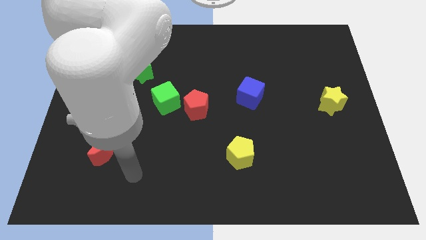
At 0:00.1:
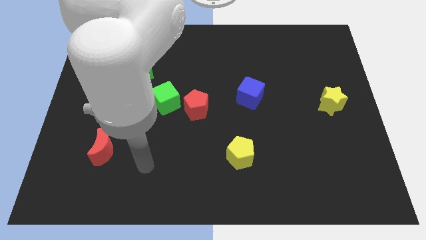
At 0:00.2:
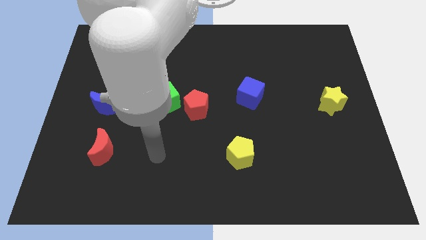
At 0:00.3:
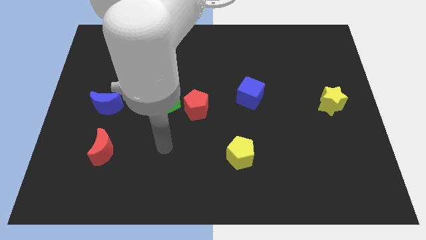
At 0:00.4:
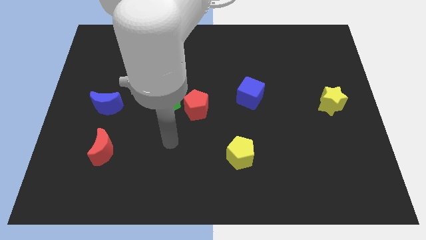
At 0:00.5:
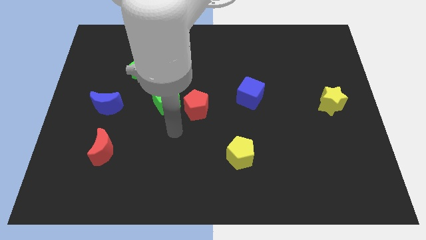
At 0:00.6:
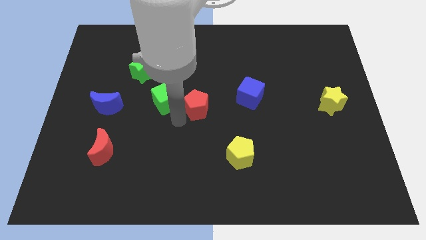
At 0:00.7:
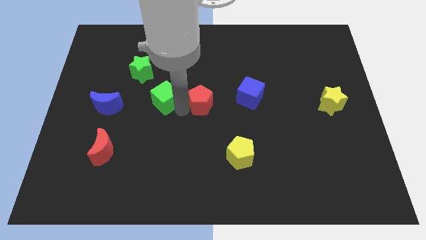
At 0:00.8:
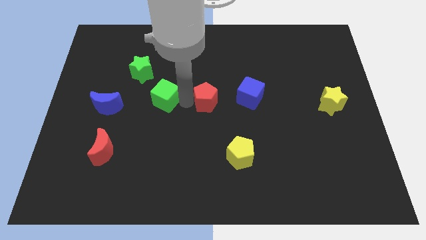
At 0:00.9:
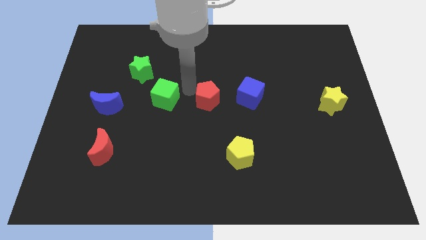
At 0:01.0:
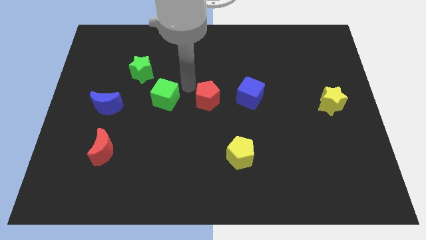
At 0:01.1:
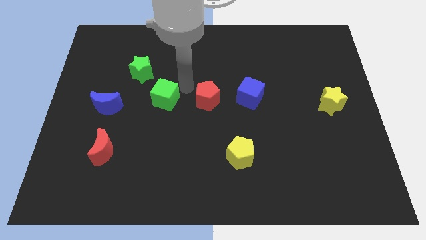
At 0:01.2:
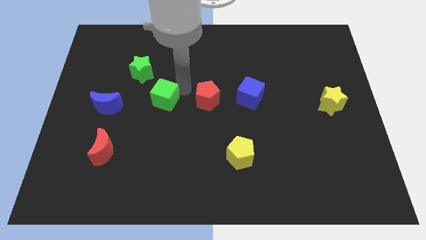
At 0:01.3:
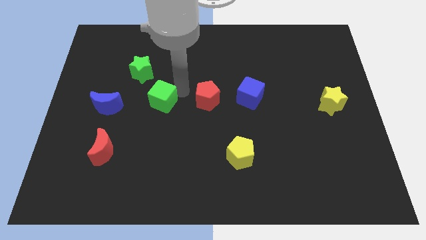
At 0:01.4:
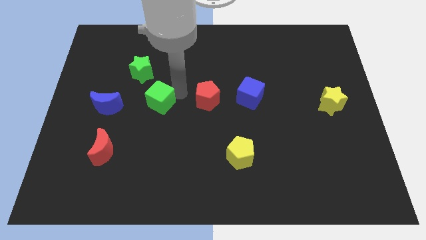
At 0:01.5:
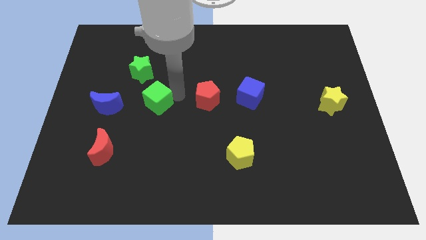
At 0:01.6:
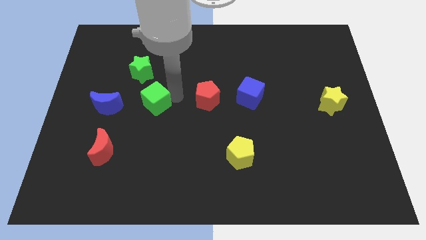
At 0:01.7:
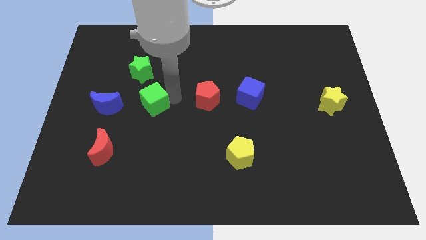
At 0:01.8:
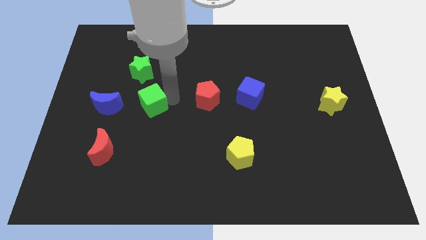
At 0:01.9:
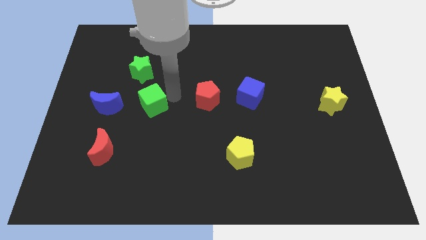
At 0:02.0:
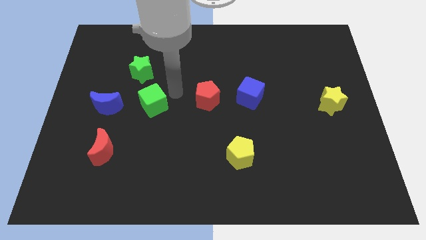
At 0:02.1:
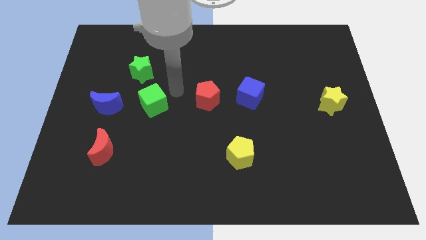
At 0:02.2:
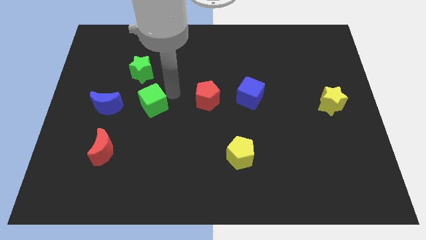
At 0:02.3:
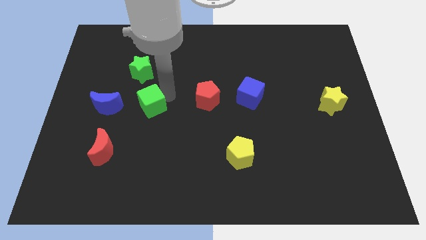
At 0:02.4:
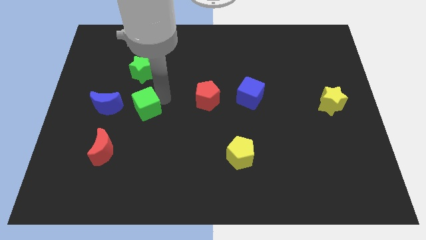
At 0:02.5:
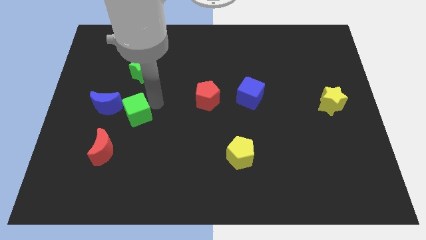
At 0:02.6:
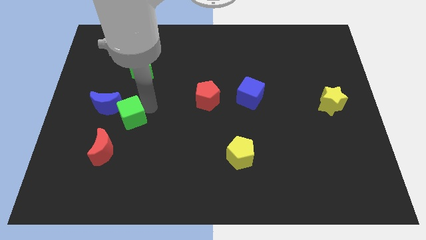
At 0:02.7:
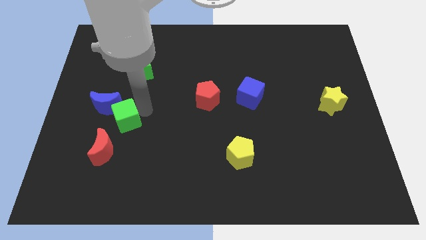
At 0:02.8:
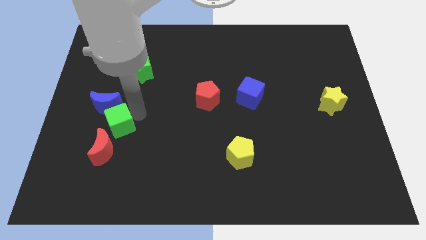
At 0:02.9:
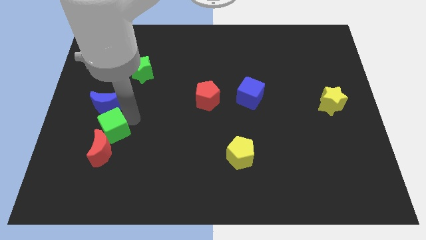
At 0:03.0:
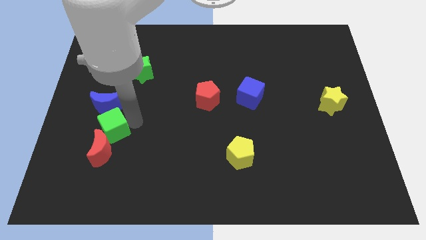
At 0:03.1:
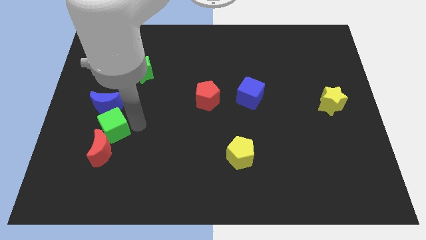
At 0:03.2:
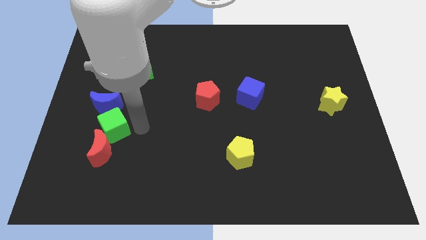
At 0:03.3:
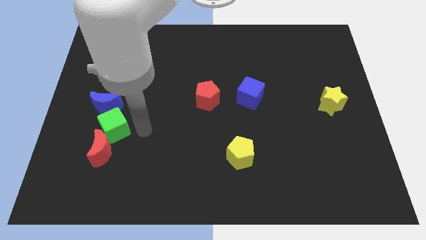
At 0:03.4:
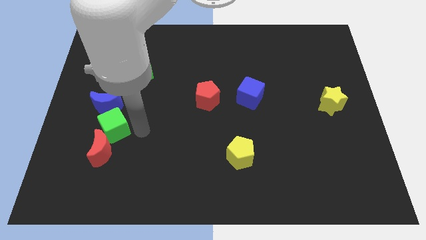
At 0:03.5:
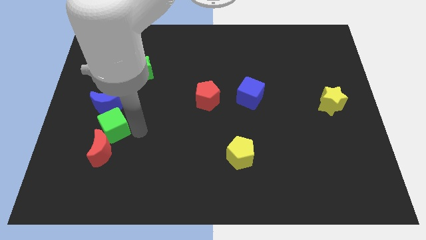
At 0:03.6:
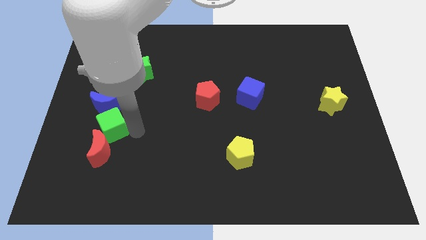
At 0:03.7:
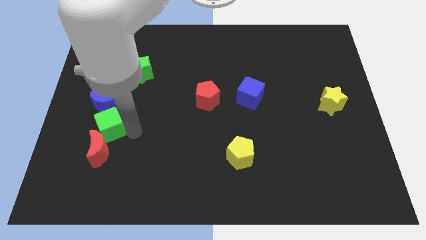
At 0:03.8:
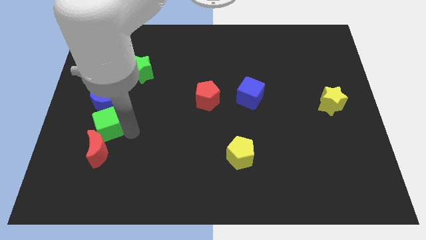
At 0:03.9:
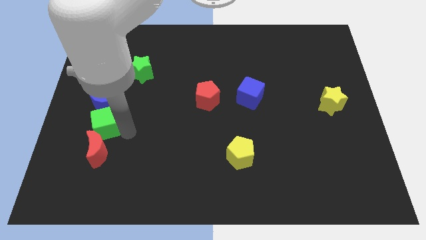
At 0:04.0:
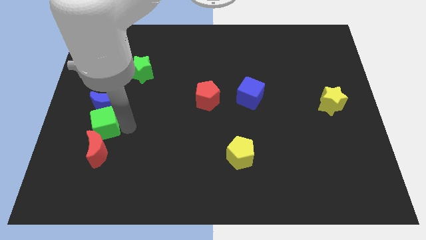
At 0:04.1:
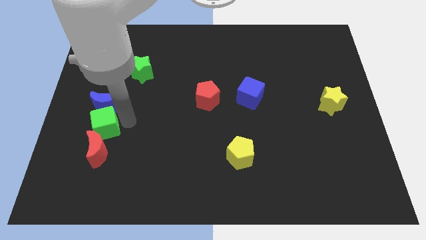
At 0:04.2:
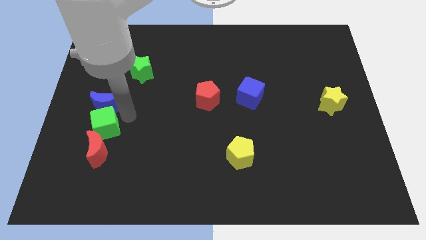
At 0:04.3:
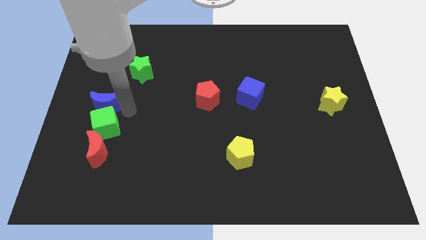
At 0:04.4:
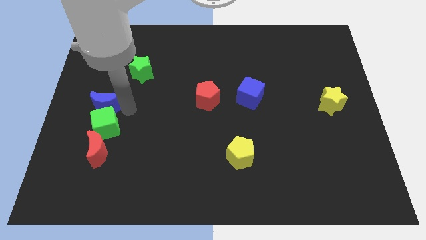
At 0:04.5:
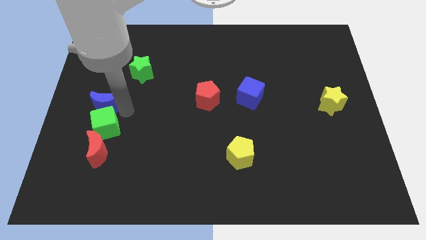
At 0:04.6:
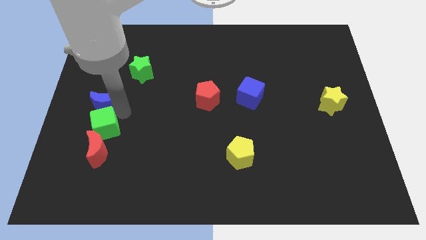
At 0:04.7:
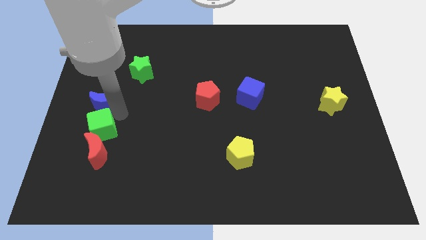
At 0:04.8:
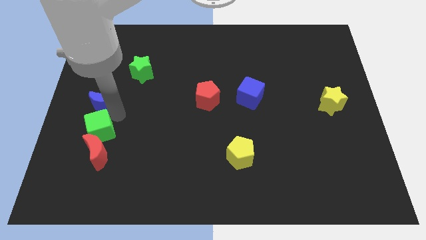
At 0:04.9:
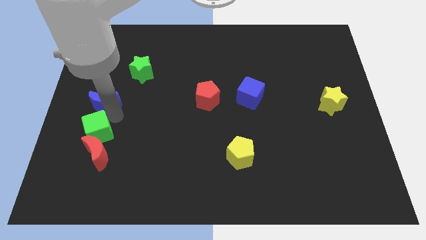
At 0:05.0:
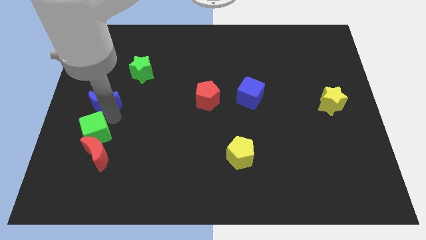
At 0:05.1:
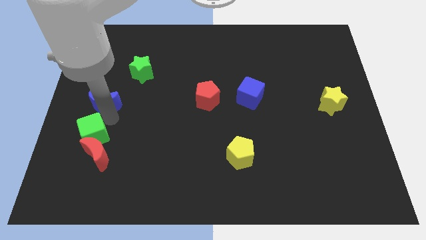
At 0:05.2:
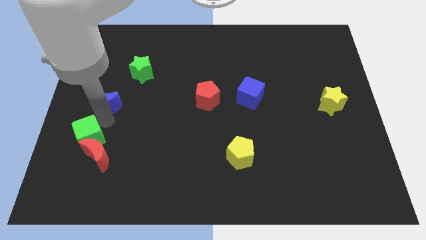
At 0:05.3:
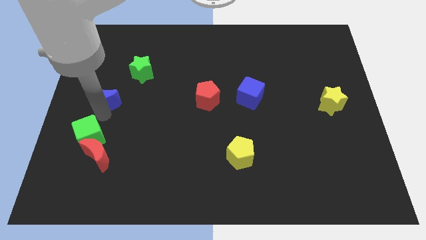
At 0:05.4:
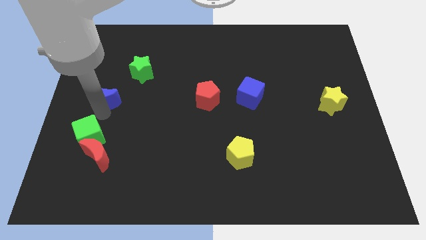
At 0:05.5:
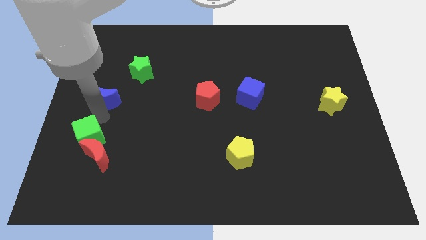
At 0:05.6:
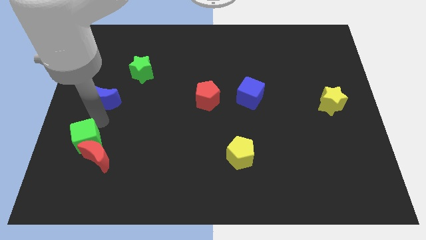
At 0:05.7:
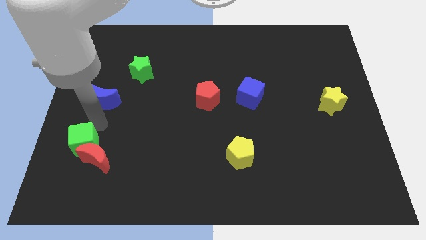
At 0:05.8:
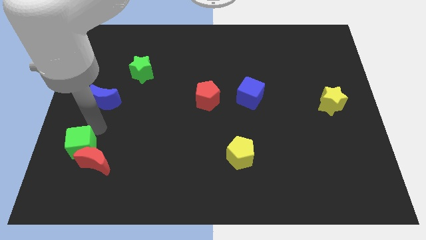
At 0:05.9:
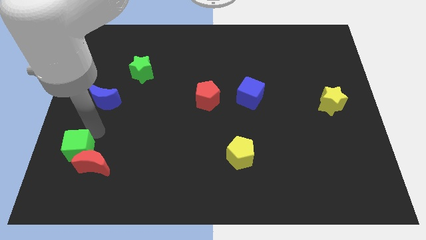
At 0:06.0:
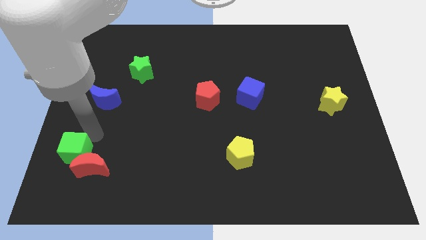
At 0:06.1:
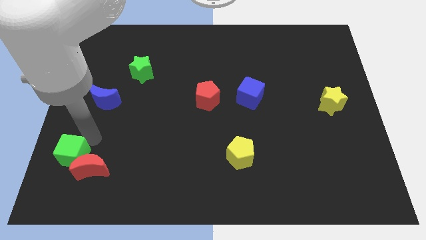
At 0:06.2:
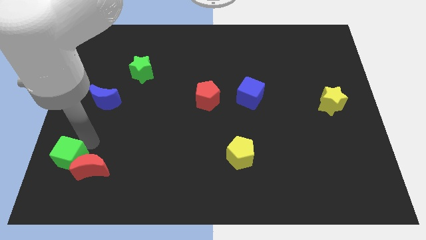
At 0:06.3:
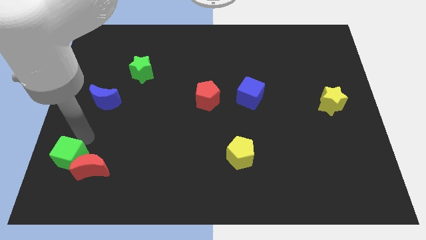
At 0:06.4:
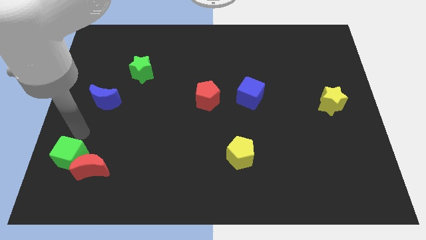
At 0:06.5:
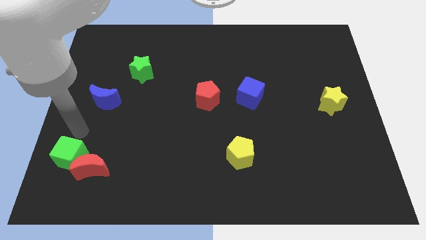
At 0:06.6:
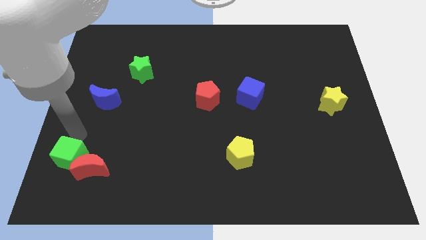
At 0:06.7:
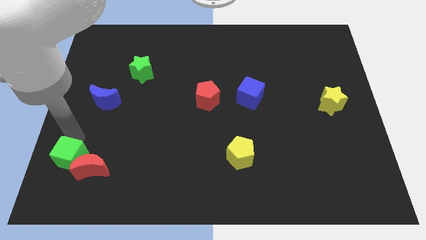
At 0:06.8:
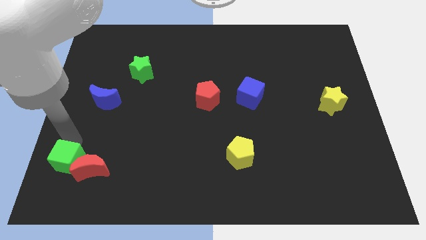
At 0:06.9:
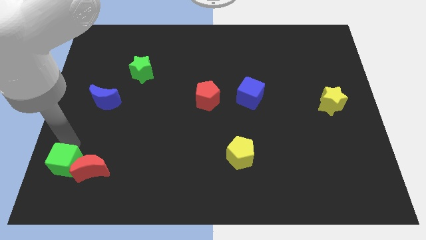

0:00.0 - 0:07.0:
slide the green cube to the bottom left of the red moon

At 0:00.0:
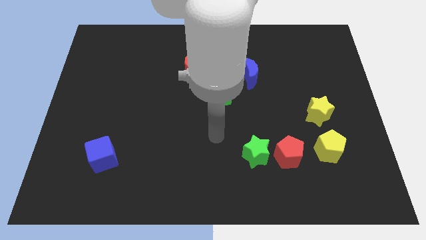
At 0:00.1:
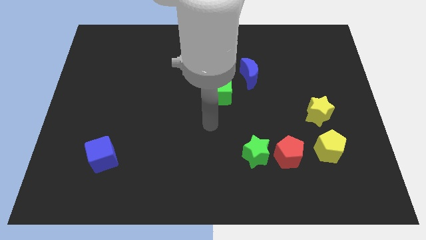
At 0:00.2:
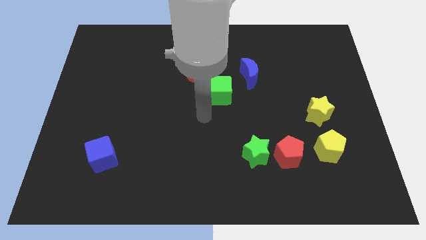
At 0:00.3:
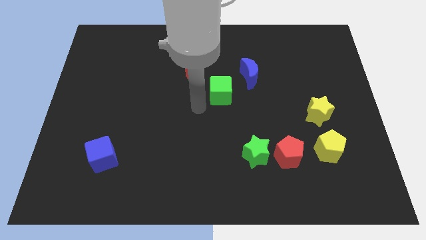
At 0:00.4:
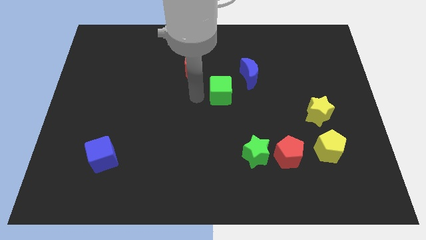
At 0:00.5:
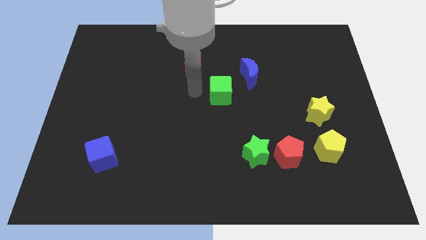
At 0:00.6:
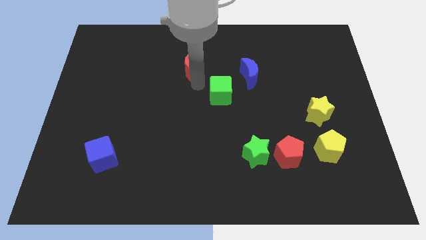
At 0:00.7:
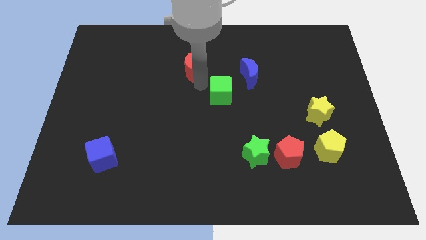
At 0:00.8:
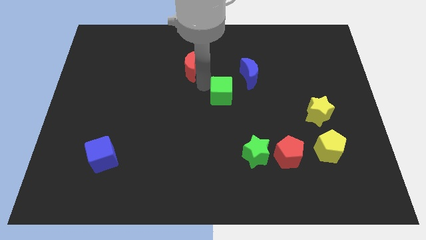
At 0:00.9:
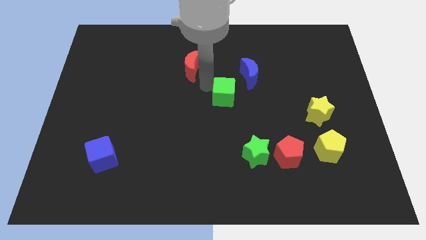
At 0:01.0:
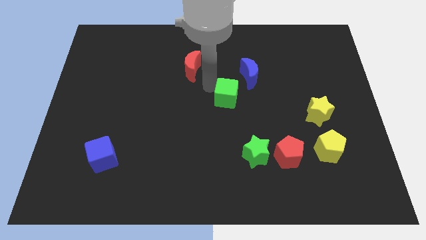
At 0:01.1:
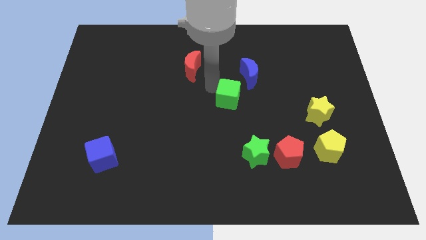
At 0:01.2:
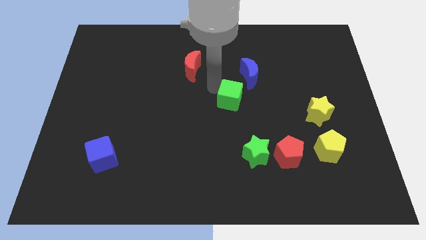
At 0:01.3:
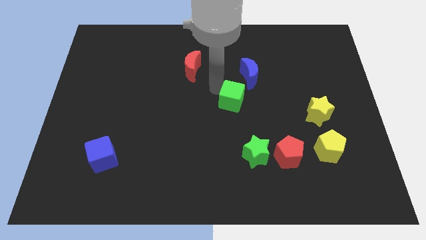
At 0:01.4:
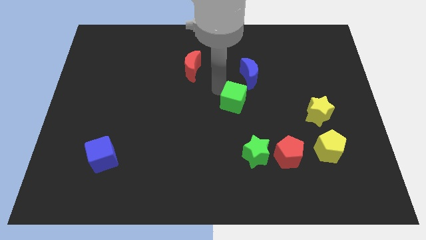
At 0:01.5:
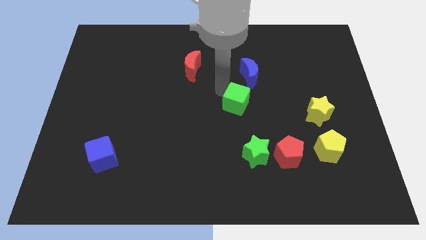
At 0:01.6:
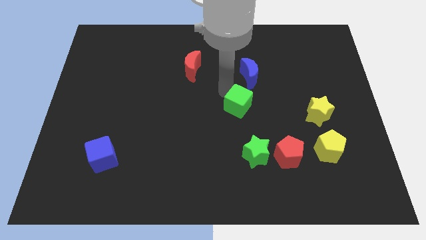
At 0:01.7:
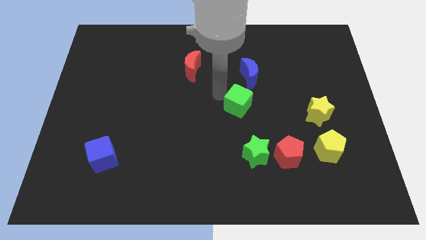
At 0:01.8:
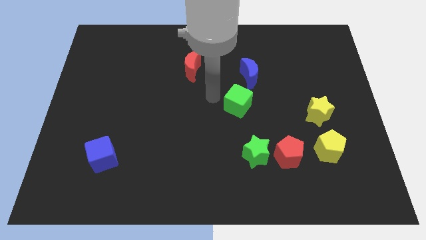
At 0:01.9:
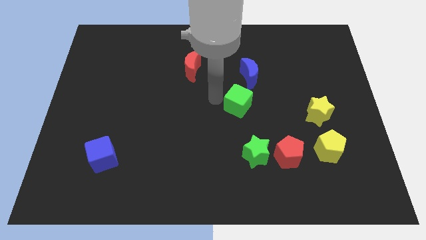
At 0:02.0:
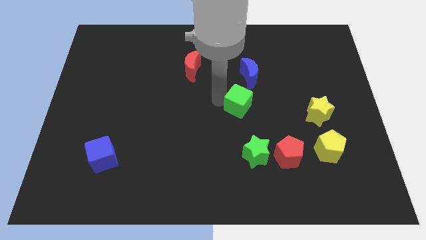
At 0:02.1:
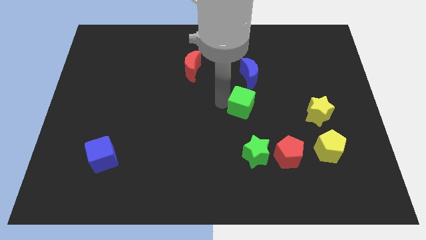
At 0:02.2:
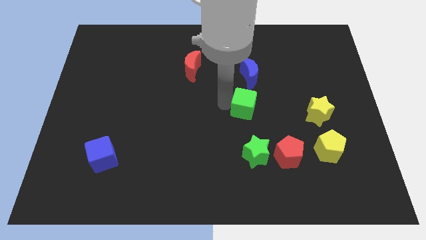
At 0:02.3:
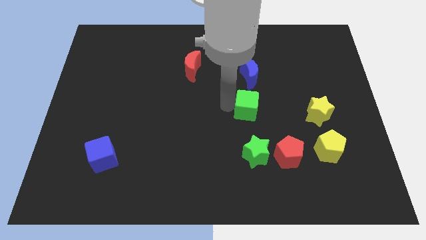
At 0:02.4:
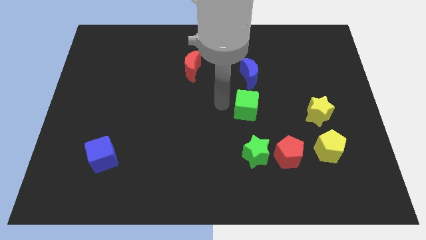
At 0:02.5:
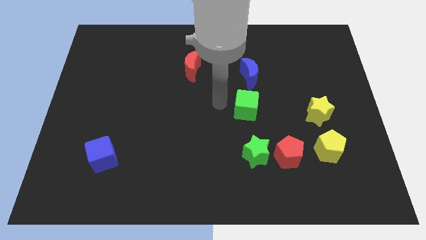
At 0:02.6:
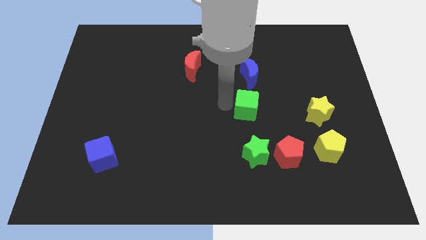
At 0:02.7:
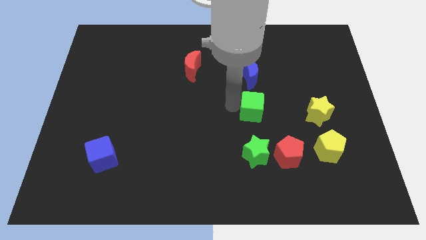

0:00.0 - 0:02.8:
move the green cube to the left side of the yellow star
